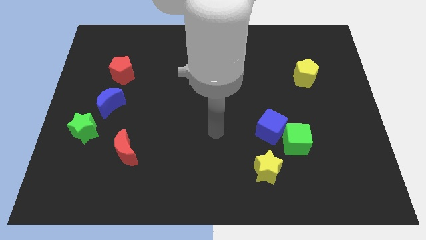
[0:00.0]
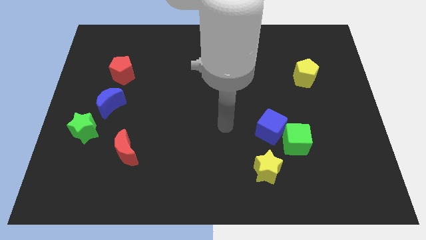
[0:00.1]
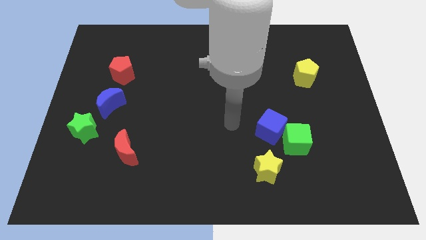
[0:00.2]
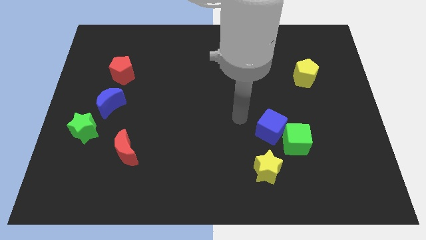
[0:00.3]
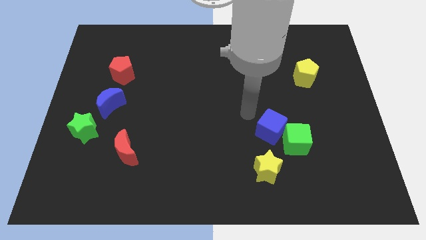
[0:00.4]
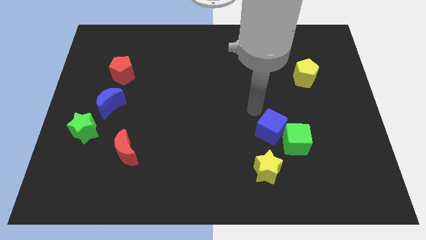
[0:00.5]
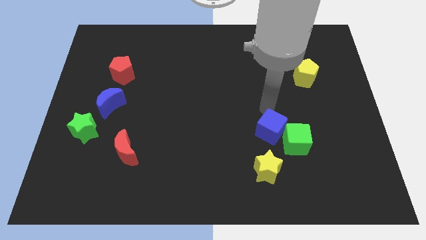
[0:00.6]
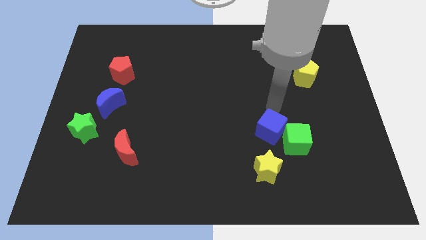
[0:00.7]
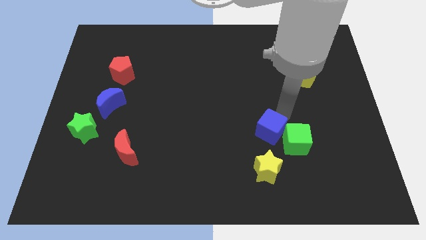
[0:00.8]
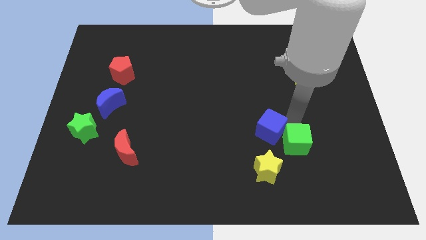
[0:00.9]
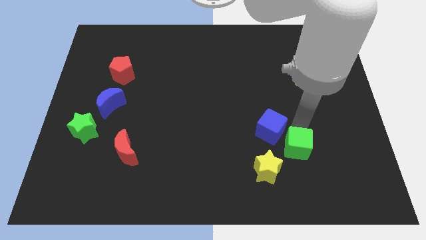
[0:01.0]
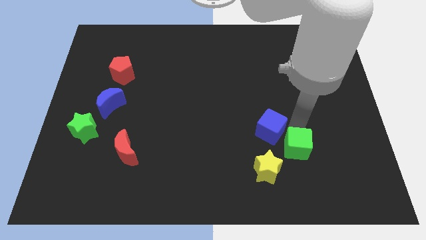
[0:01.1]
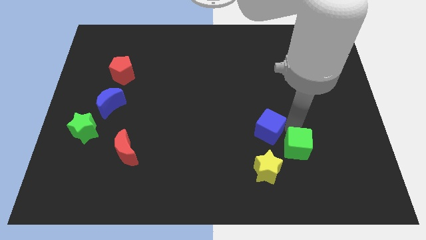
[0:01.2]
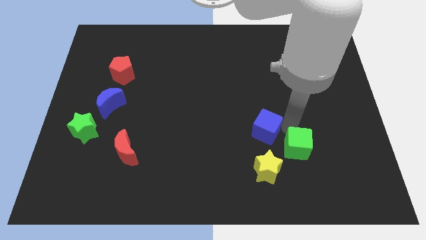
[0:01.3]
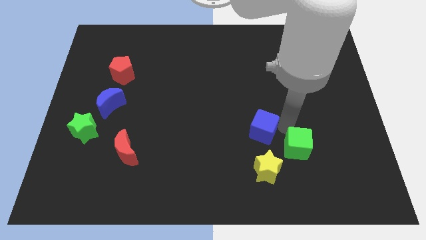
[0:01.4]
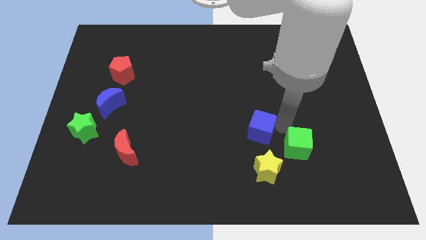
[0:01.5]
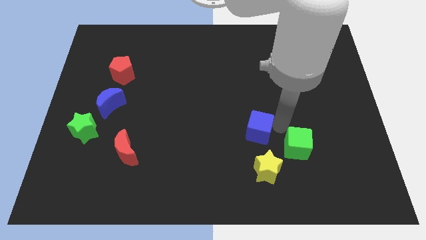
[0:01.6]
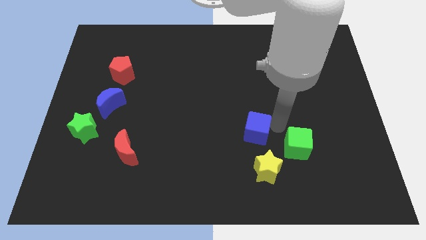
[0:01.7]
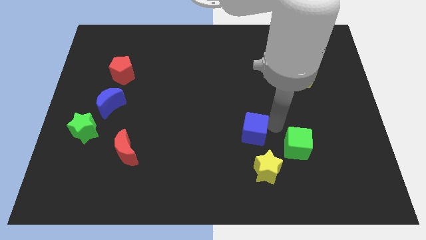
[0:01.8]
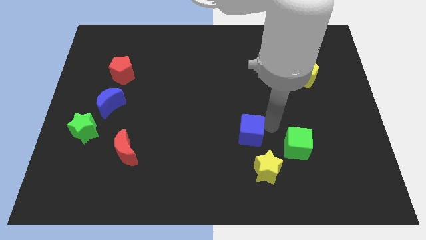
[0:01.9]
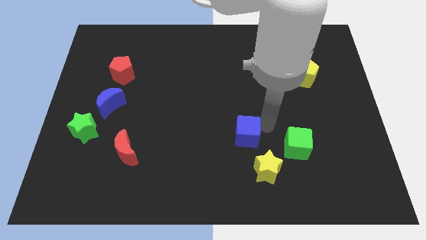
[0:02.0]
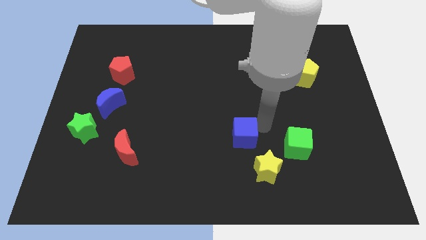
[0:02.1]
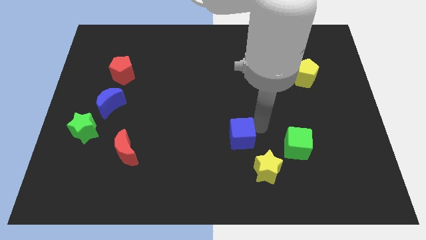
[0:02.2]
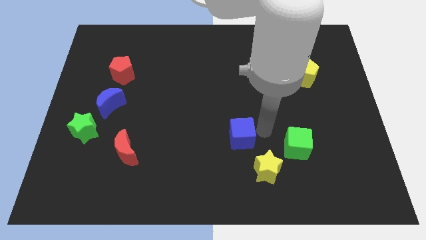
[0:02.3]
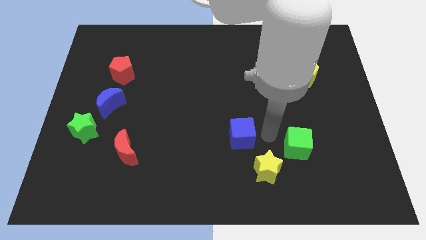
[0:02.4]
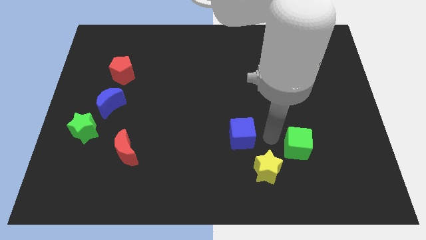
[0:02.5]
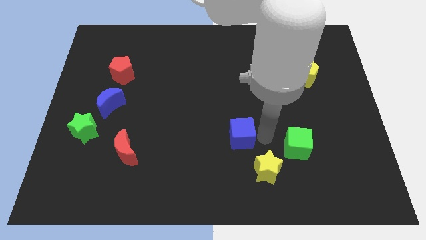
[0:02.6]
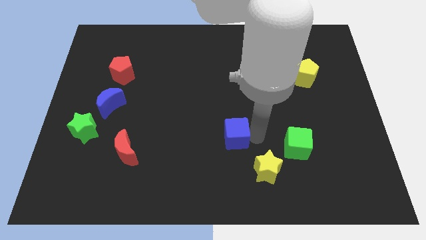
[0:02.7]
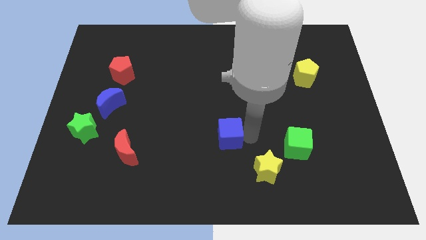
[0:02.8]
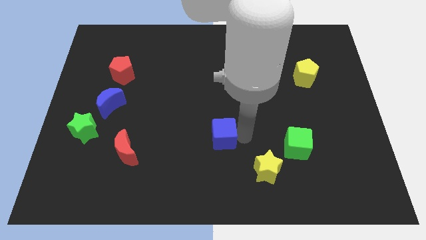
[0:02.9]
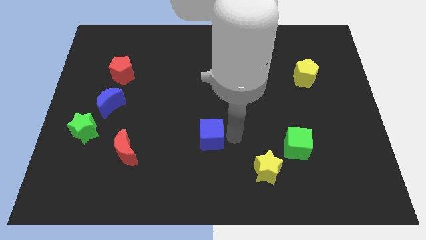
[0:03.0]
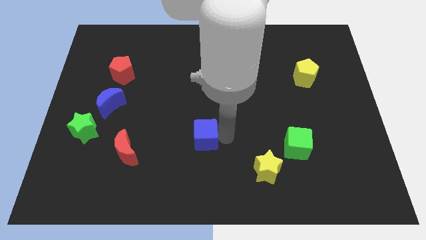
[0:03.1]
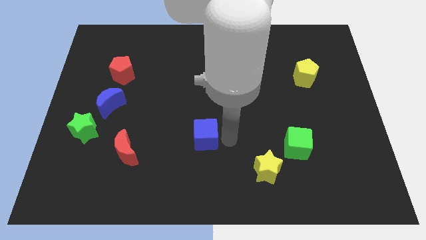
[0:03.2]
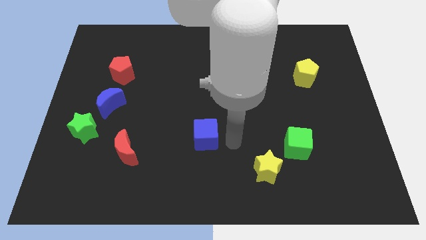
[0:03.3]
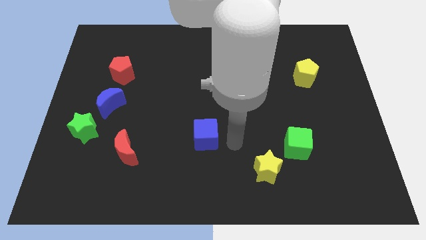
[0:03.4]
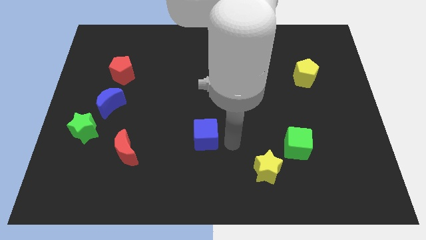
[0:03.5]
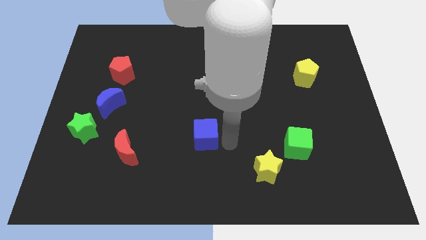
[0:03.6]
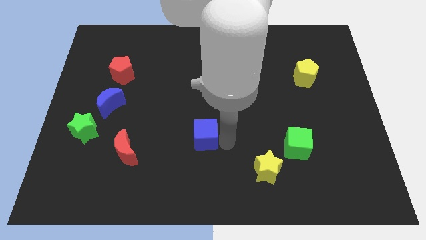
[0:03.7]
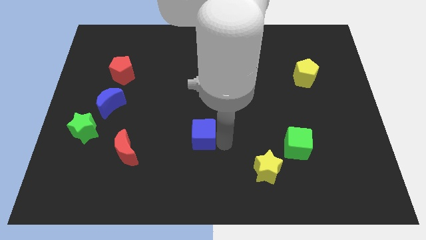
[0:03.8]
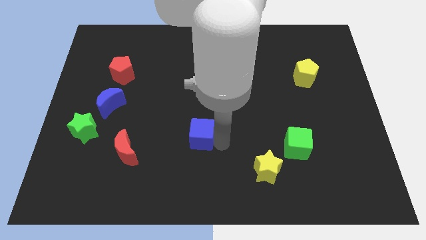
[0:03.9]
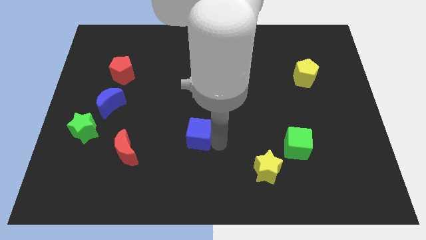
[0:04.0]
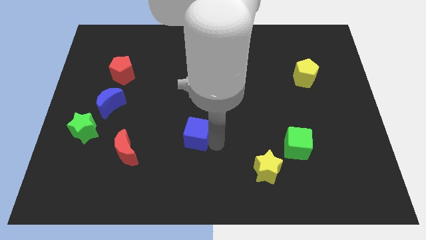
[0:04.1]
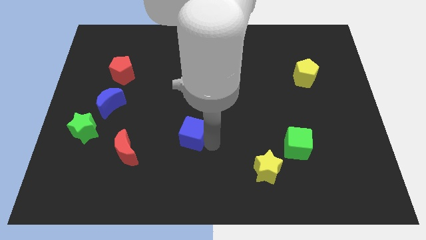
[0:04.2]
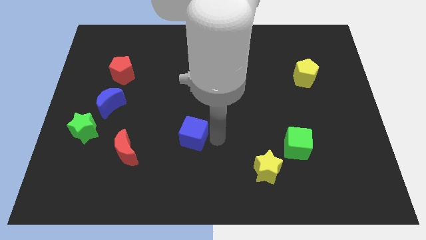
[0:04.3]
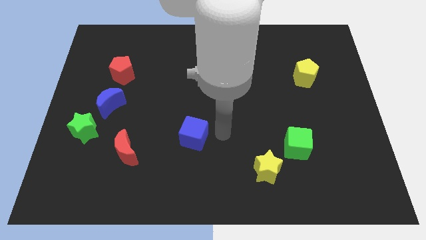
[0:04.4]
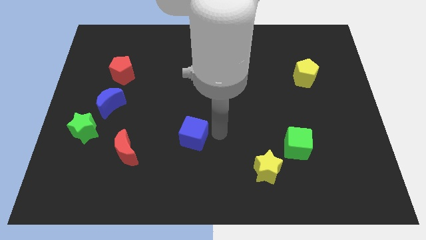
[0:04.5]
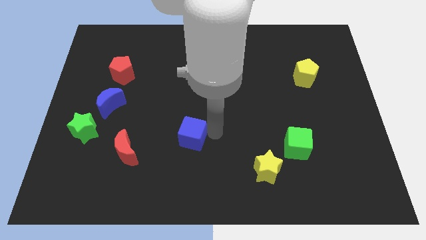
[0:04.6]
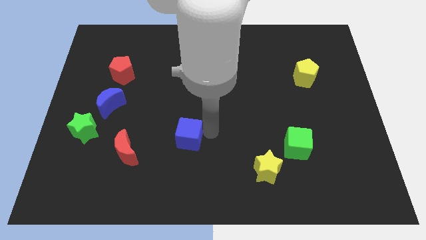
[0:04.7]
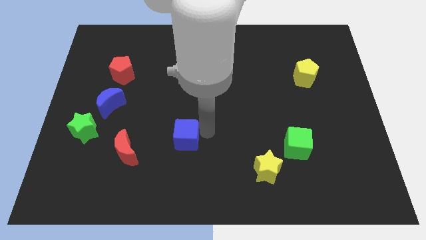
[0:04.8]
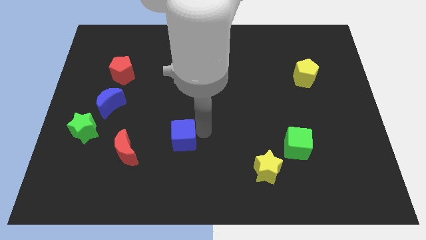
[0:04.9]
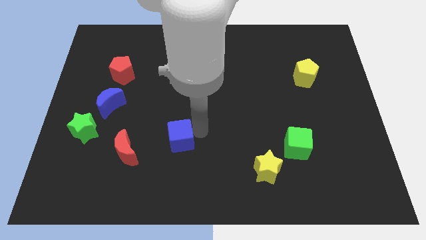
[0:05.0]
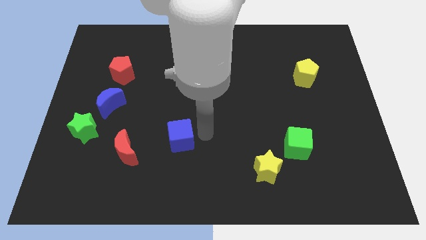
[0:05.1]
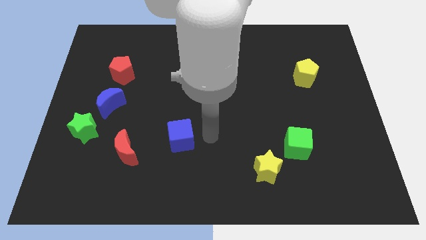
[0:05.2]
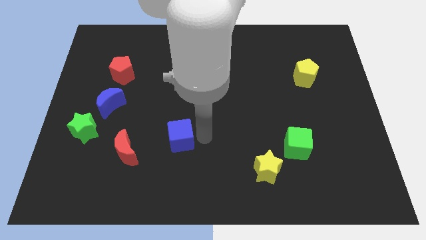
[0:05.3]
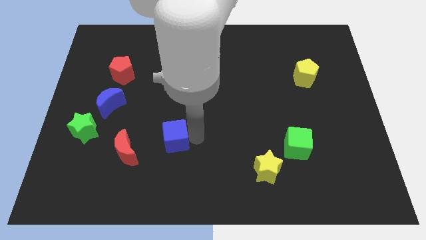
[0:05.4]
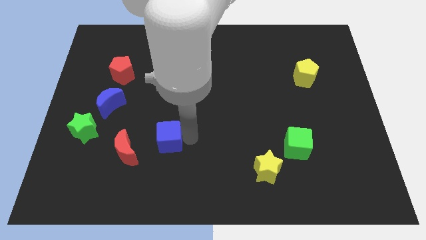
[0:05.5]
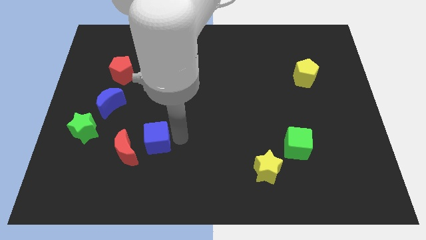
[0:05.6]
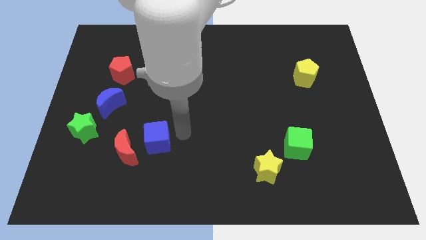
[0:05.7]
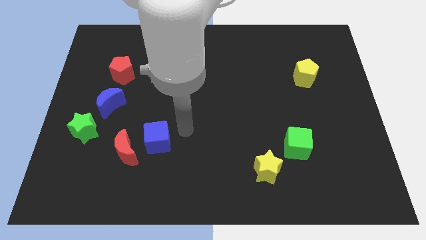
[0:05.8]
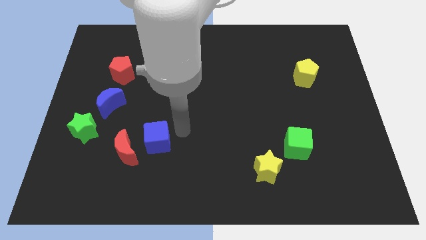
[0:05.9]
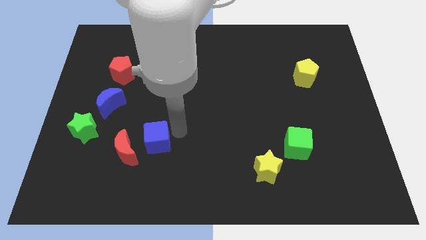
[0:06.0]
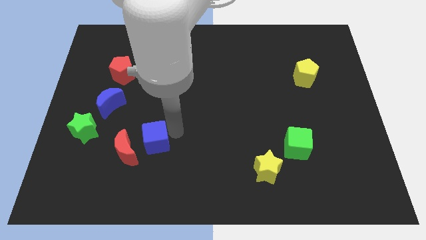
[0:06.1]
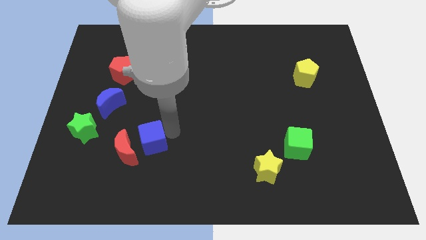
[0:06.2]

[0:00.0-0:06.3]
slide the blue cube to the red moon

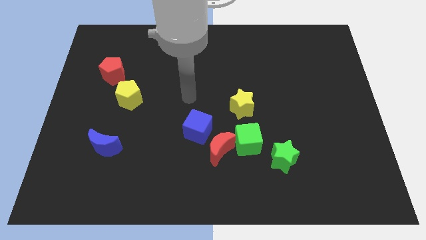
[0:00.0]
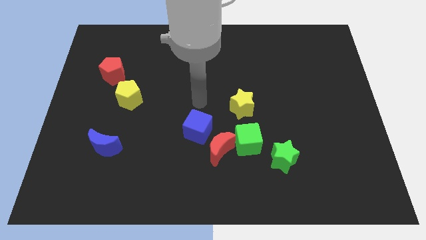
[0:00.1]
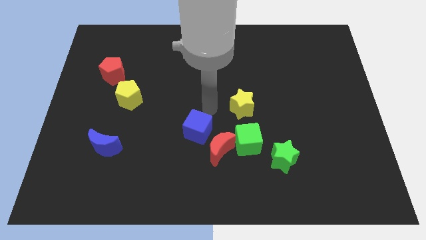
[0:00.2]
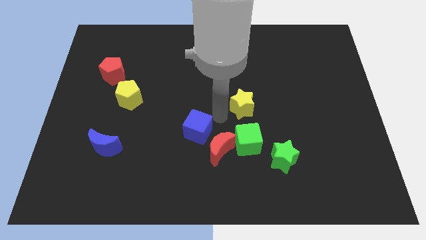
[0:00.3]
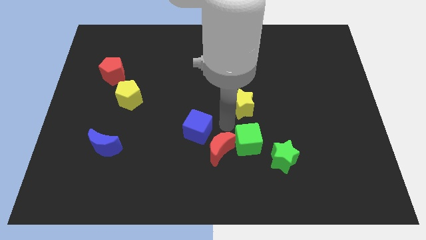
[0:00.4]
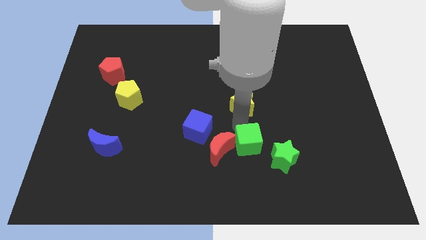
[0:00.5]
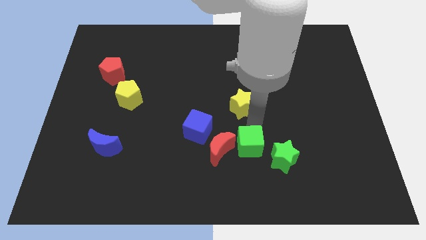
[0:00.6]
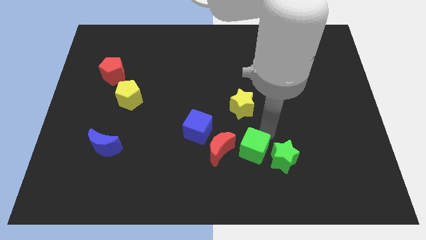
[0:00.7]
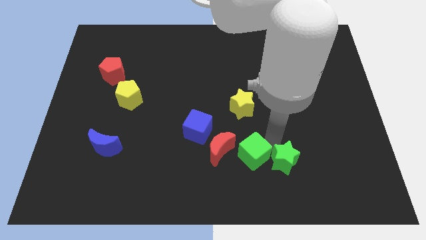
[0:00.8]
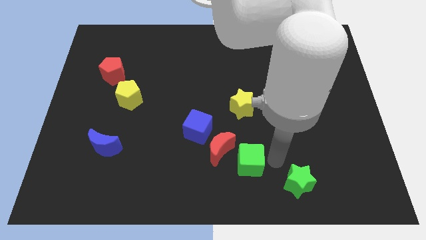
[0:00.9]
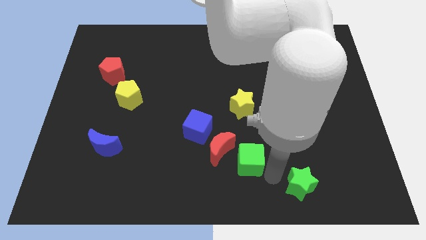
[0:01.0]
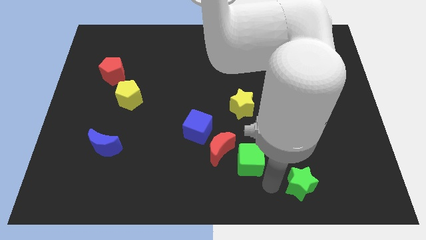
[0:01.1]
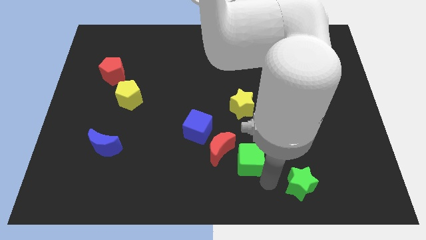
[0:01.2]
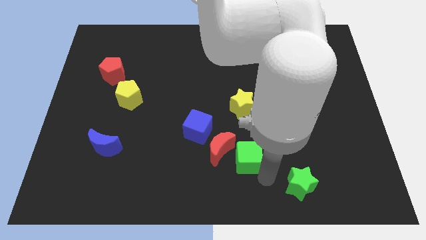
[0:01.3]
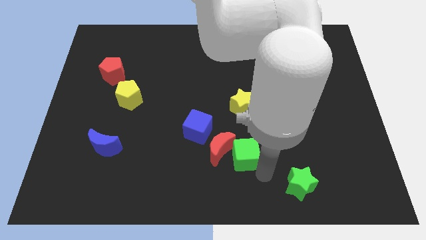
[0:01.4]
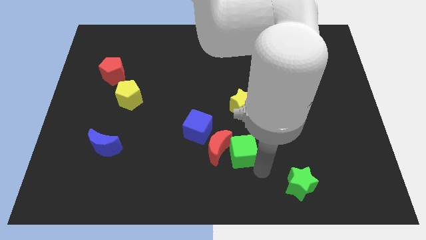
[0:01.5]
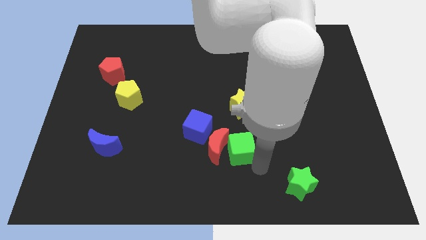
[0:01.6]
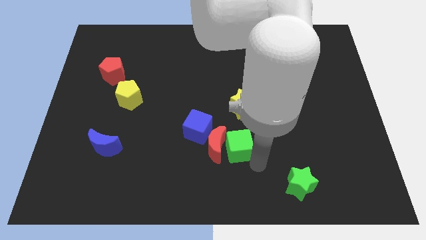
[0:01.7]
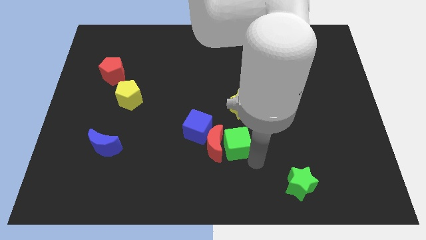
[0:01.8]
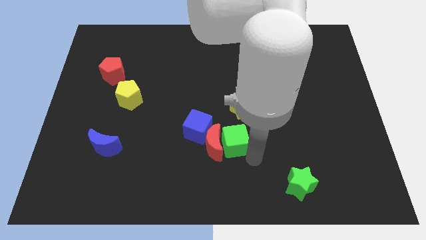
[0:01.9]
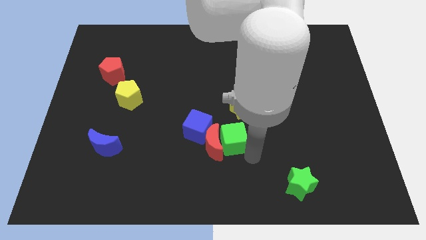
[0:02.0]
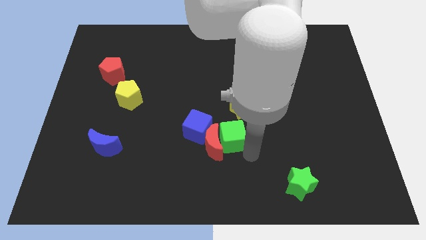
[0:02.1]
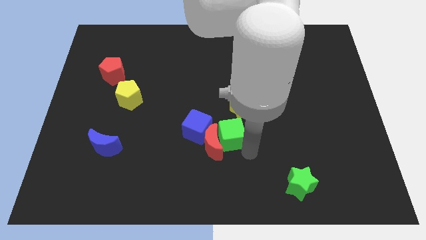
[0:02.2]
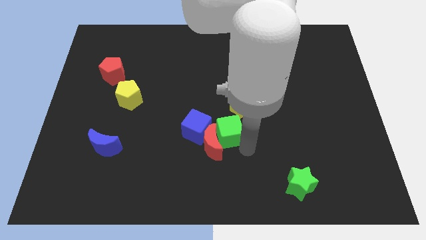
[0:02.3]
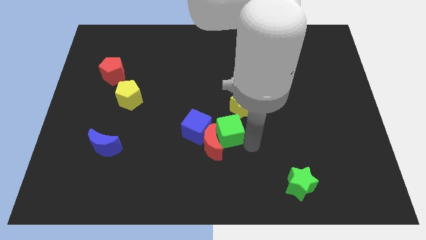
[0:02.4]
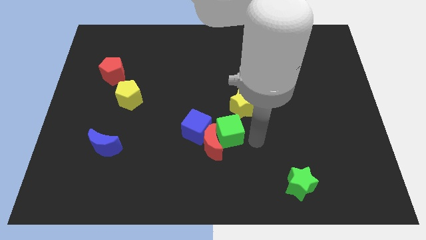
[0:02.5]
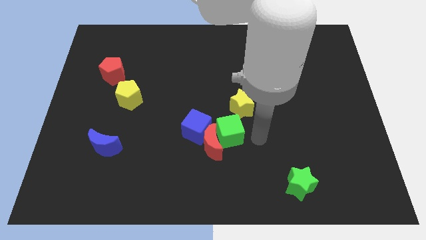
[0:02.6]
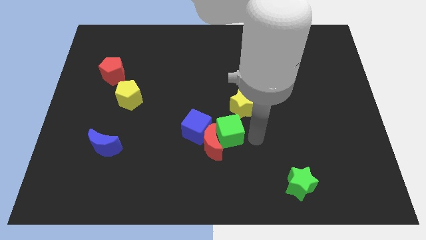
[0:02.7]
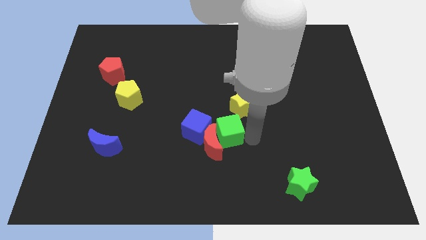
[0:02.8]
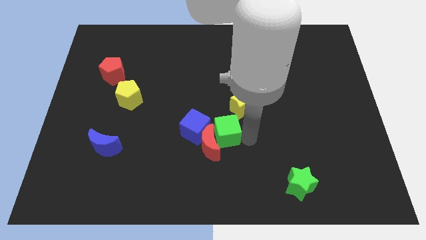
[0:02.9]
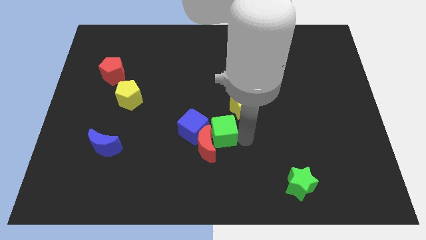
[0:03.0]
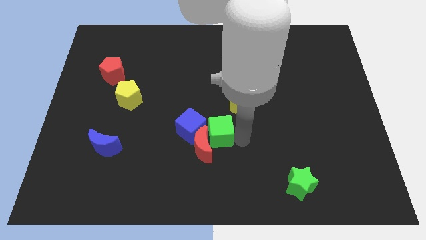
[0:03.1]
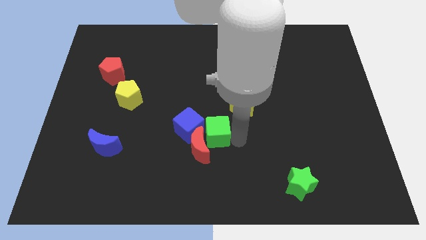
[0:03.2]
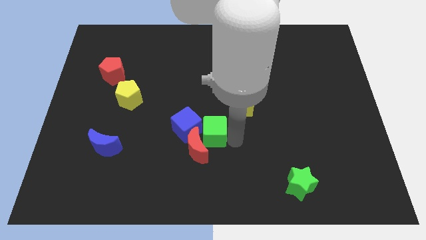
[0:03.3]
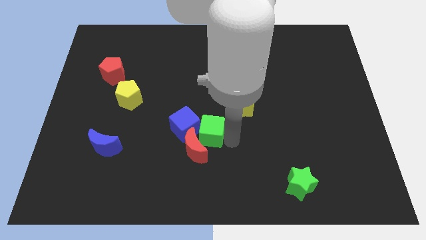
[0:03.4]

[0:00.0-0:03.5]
put the green cube next to the blue cube
